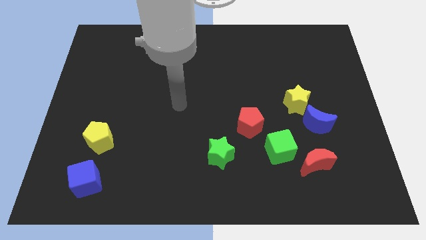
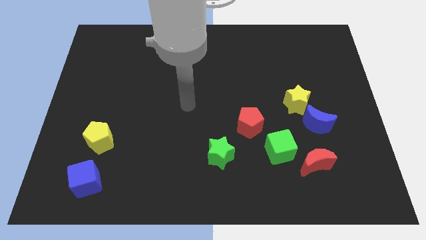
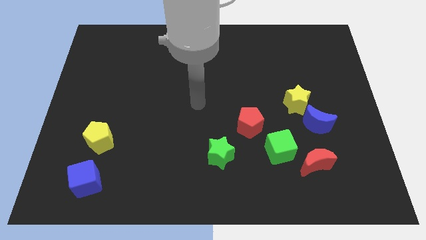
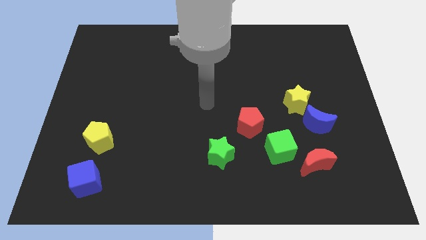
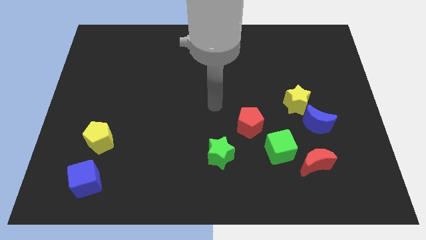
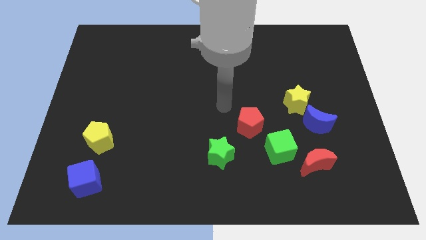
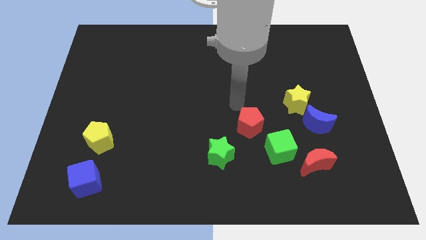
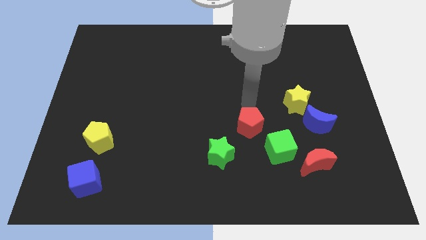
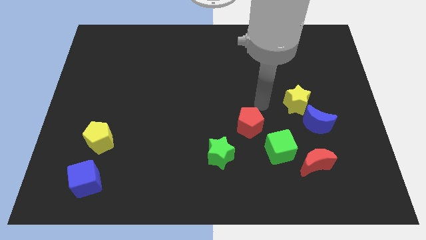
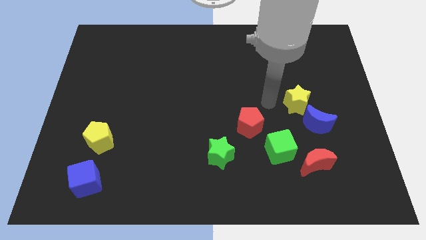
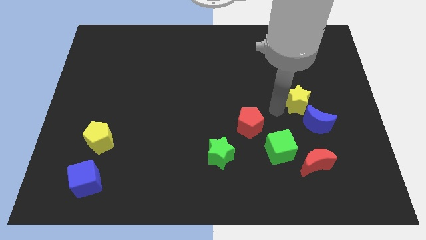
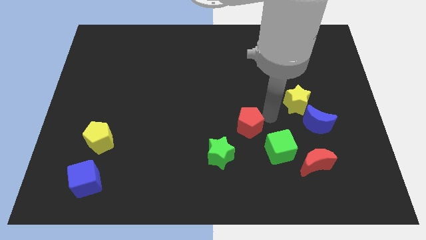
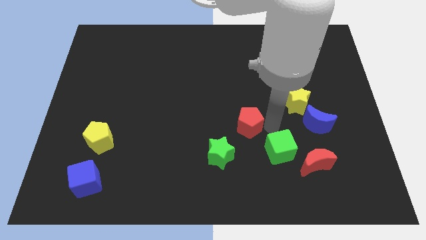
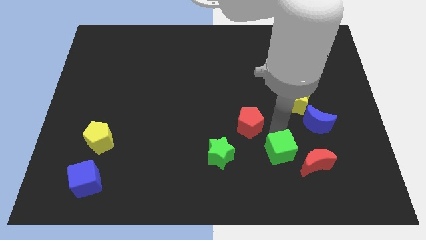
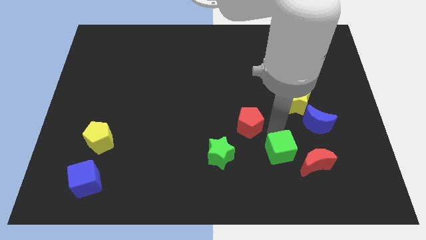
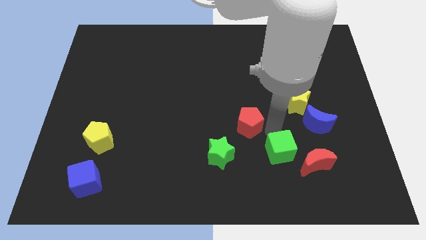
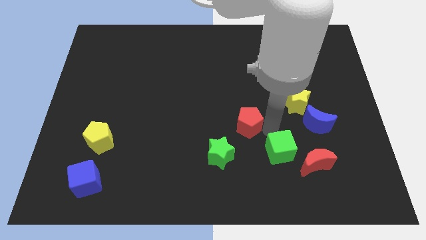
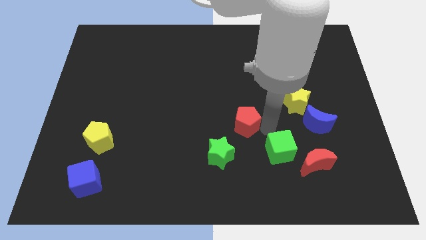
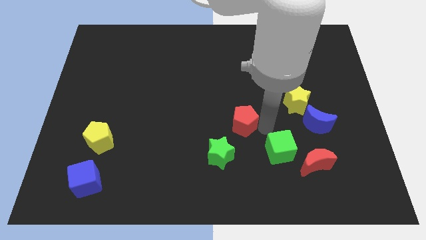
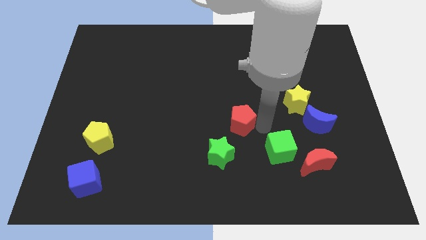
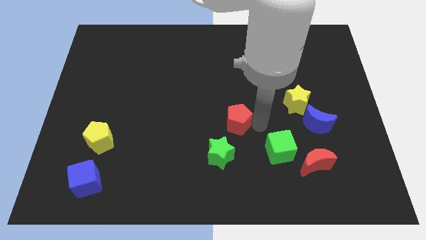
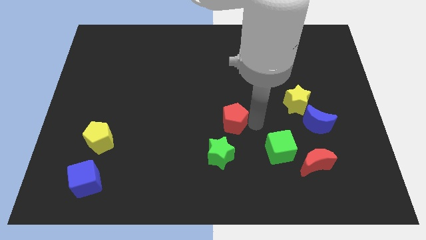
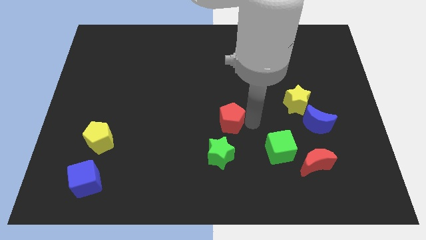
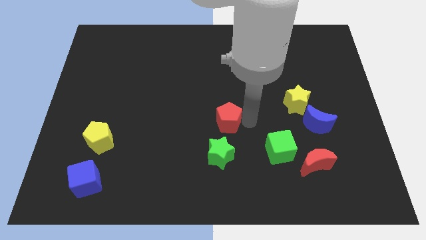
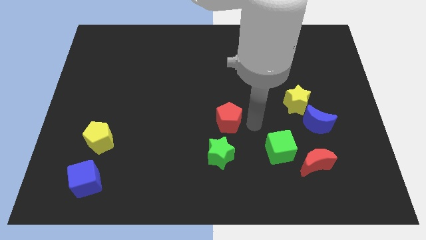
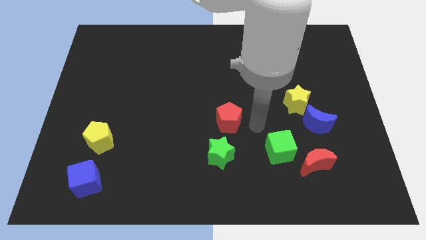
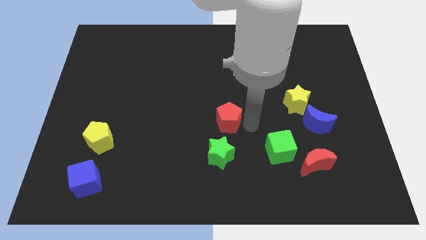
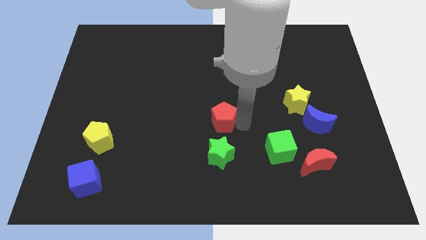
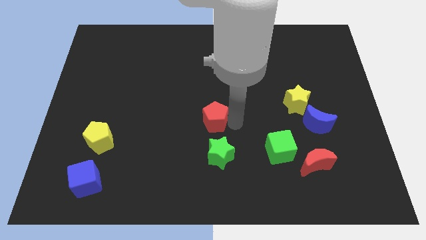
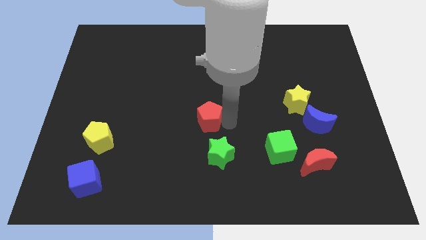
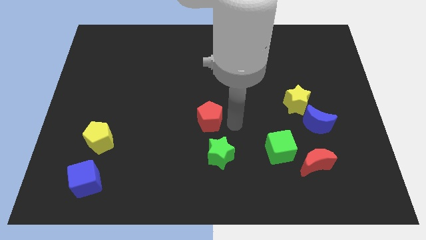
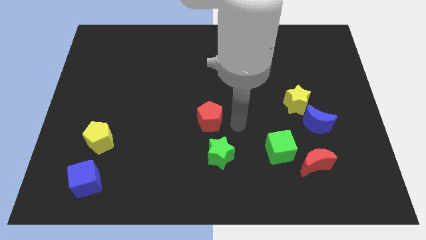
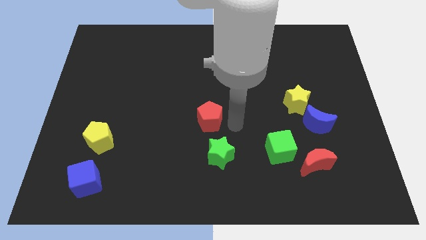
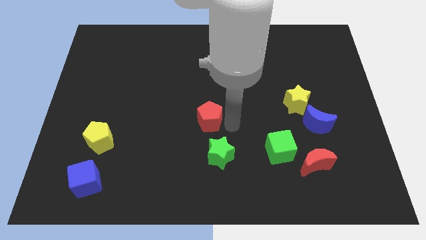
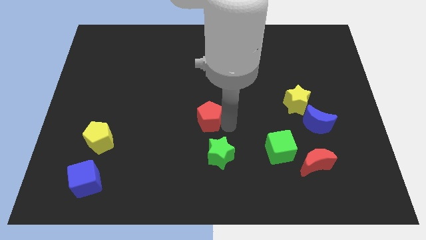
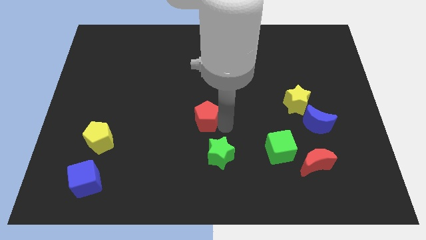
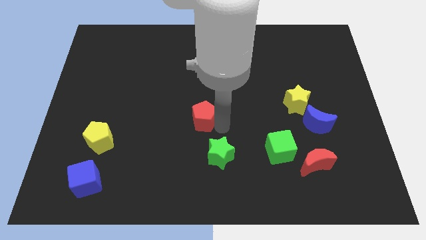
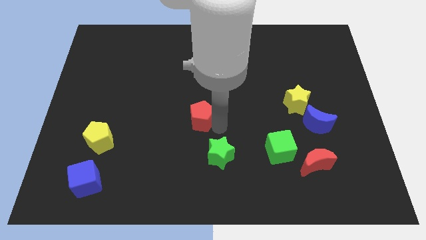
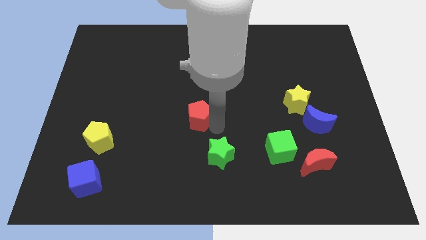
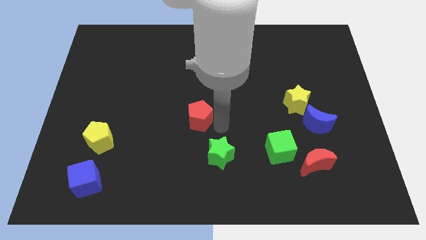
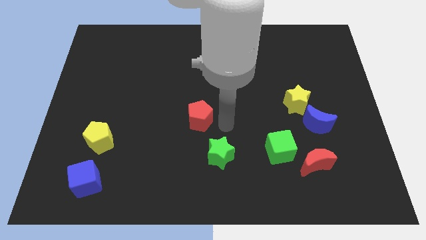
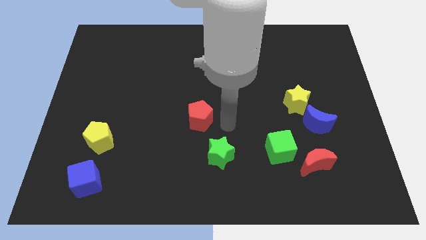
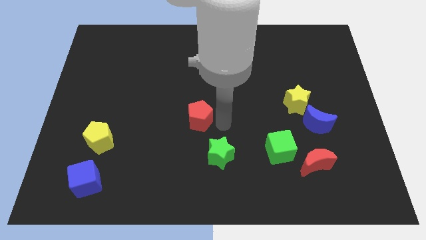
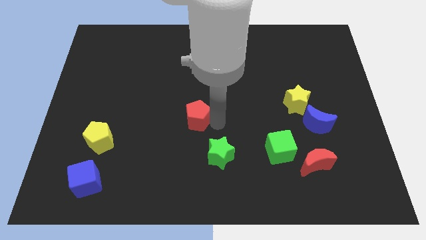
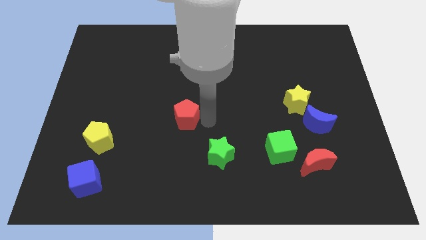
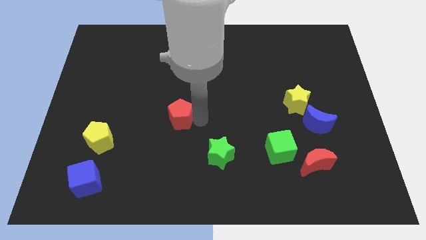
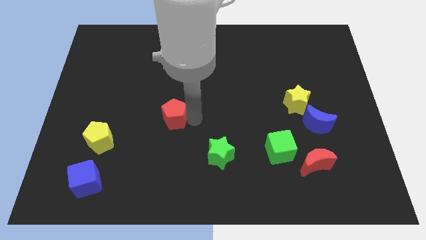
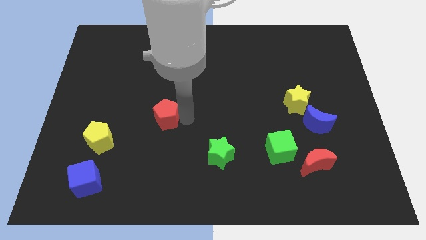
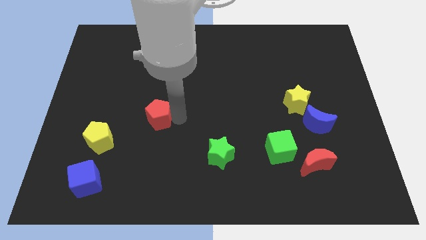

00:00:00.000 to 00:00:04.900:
slide the red pentagon to the left

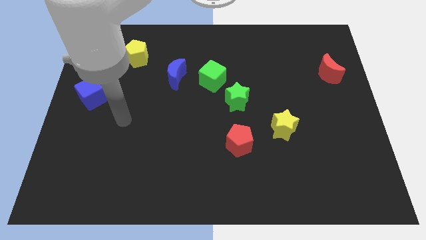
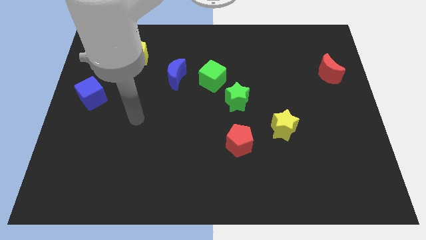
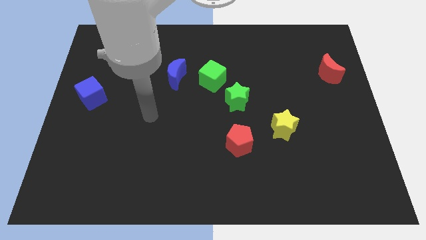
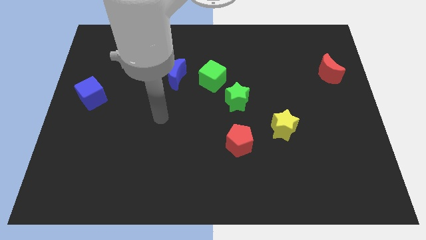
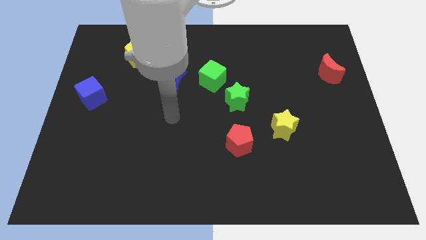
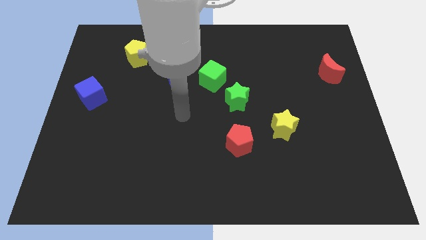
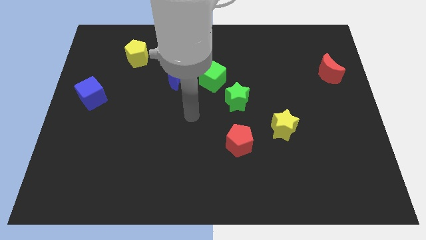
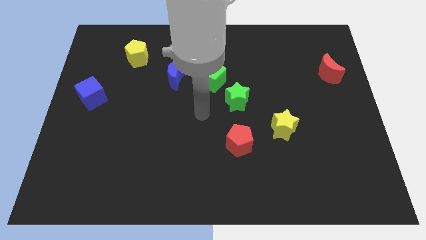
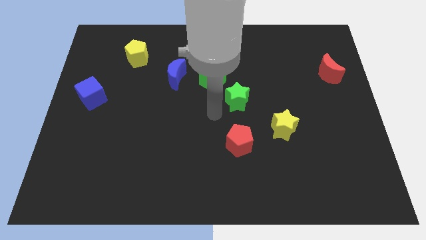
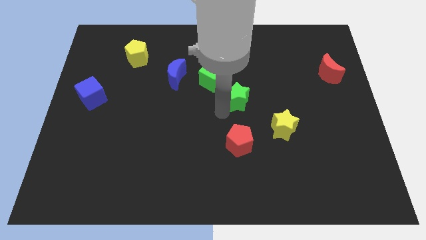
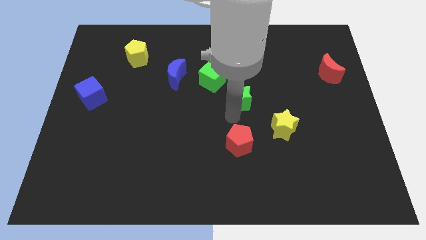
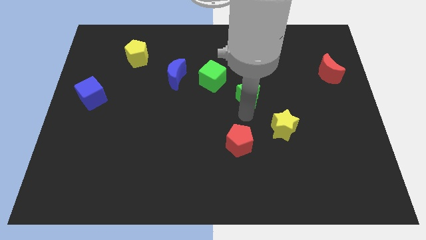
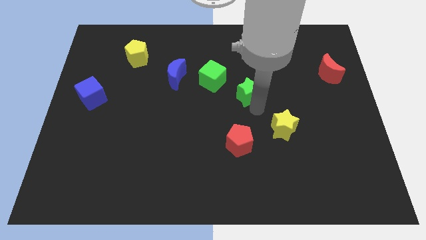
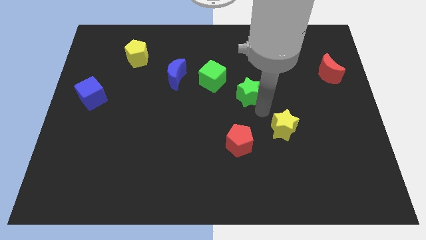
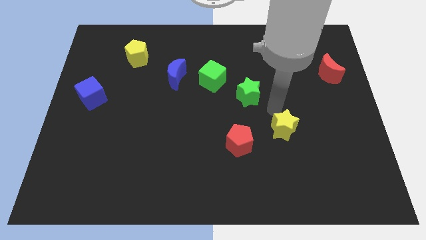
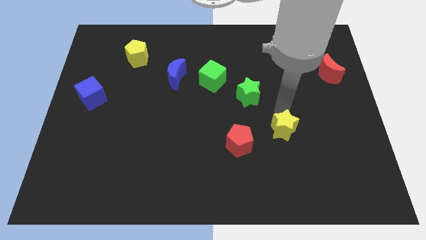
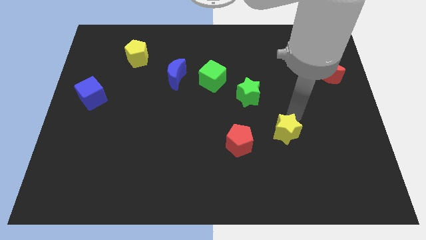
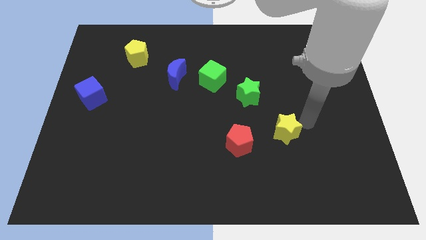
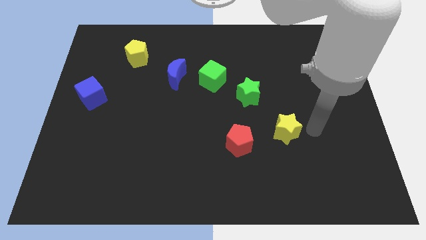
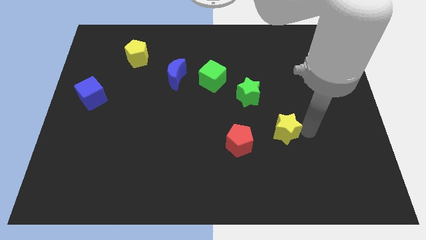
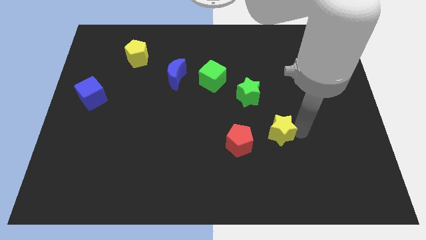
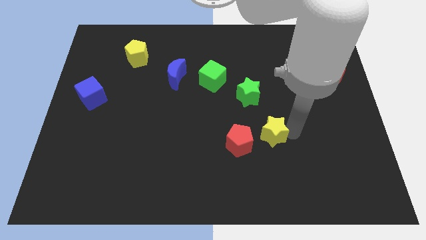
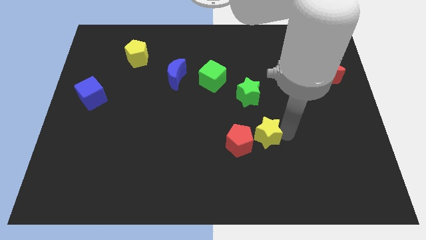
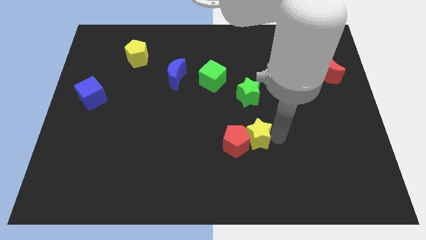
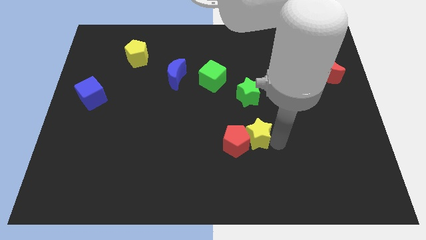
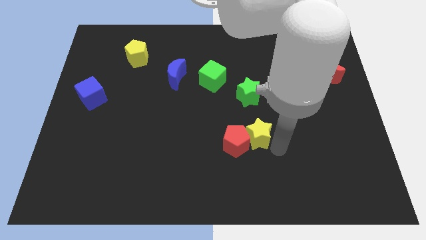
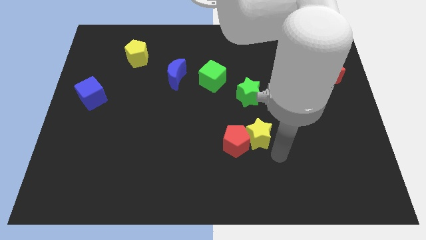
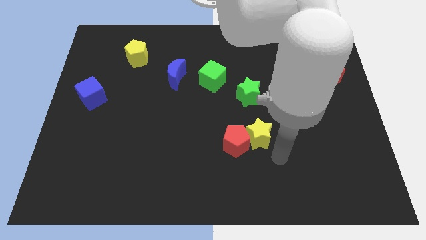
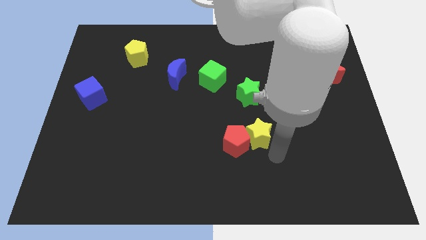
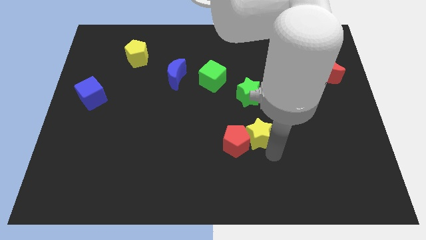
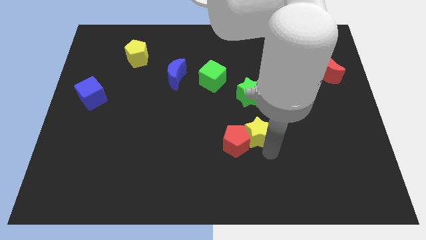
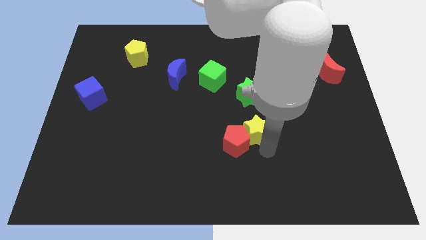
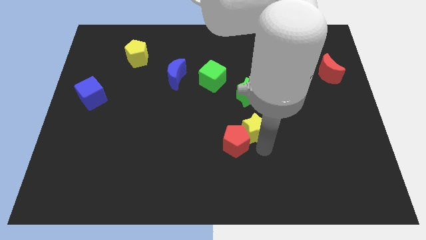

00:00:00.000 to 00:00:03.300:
slide the yellow star left a bit

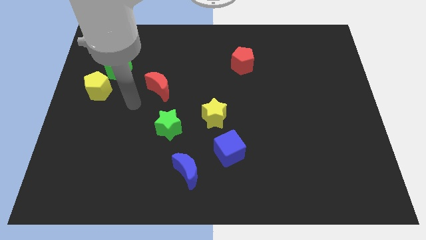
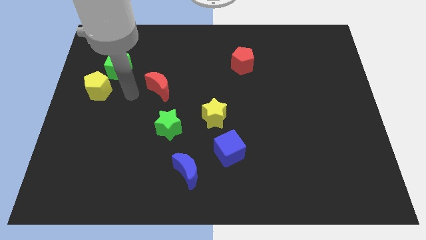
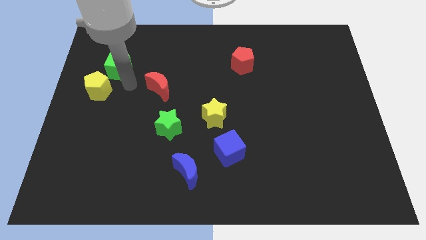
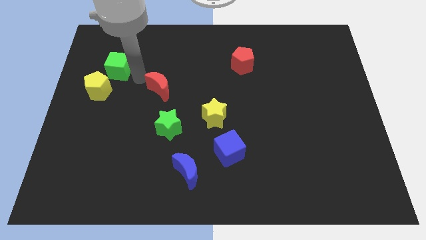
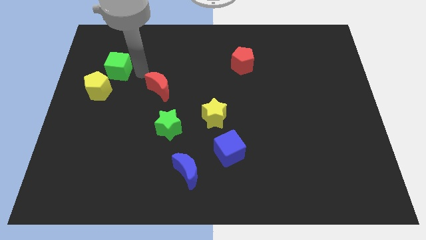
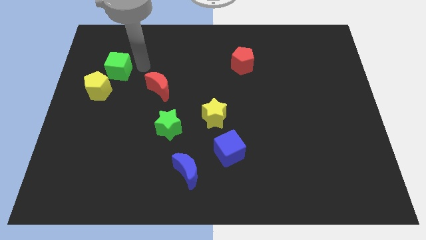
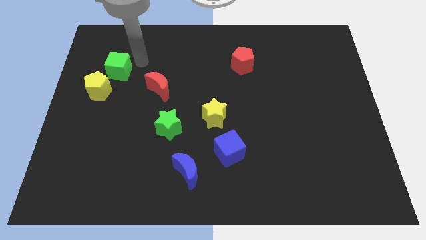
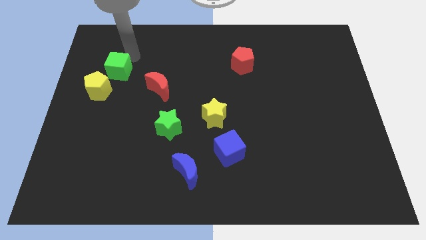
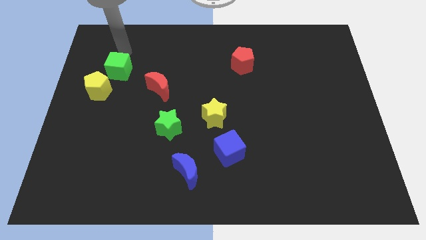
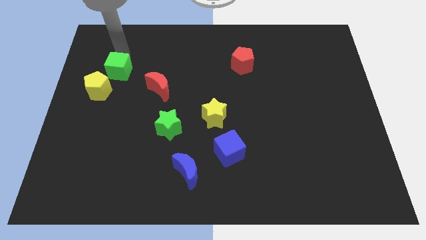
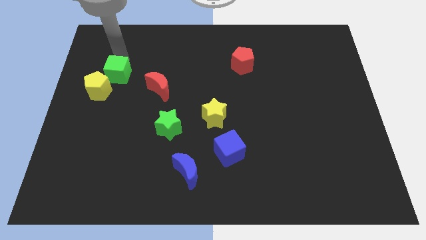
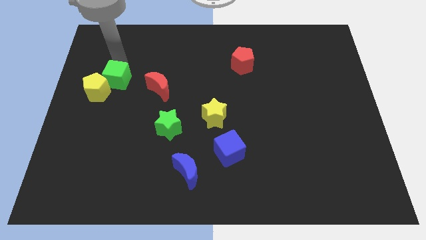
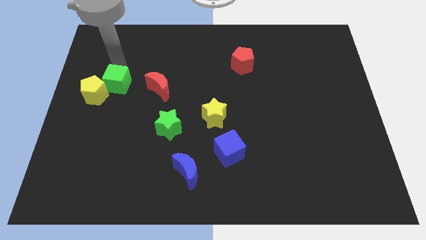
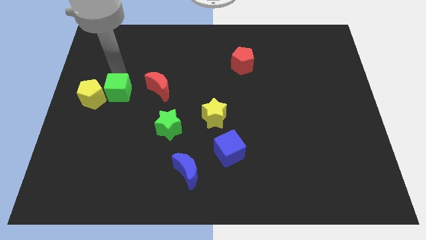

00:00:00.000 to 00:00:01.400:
slightly move the green cube down
